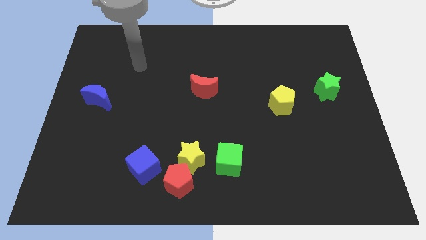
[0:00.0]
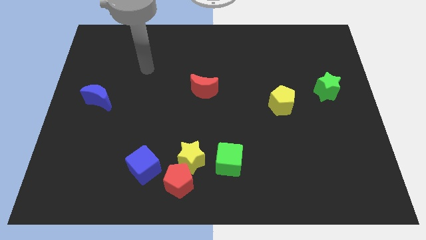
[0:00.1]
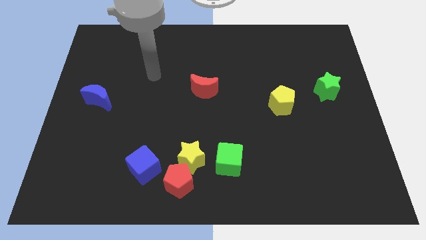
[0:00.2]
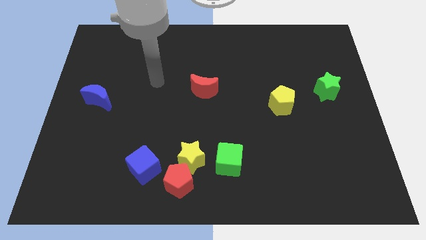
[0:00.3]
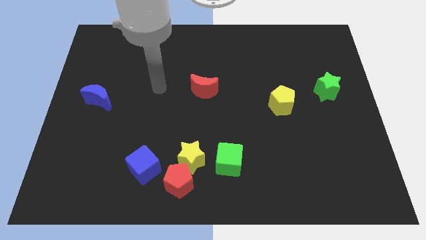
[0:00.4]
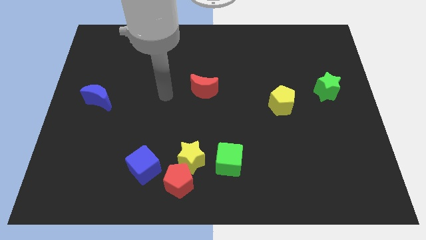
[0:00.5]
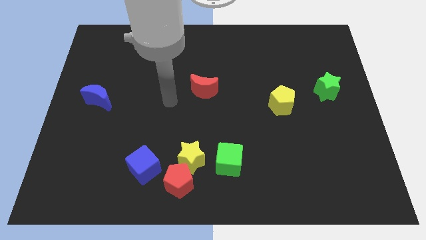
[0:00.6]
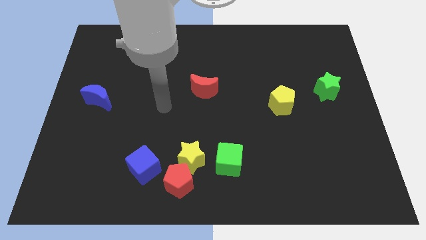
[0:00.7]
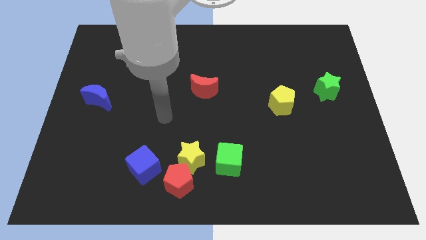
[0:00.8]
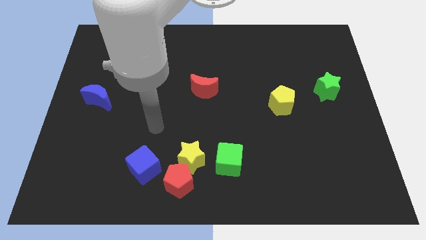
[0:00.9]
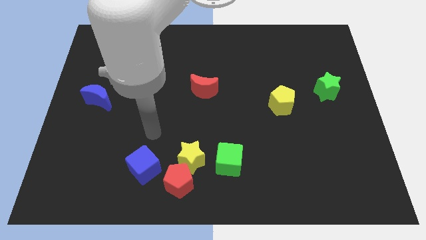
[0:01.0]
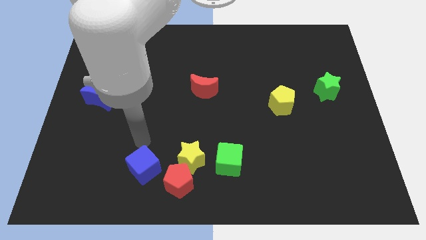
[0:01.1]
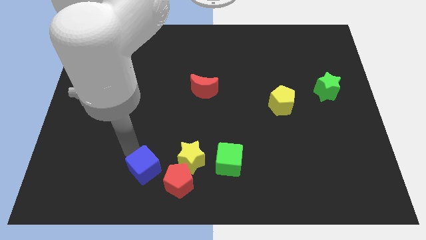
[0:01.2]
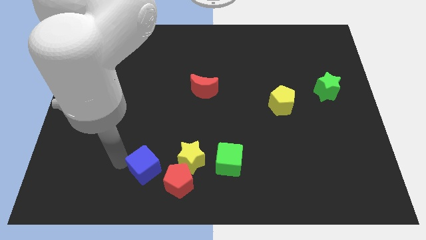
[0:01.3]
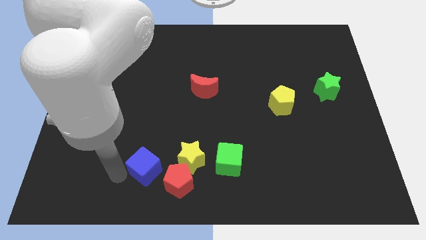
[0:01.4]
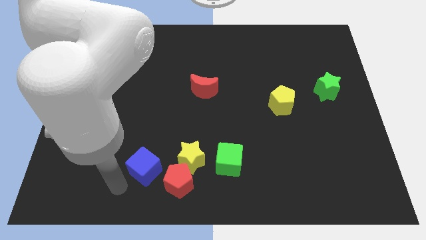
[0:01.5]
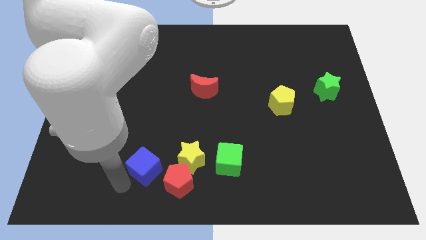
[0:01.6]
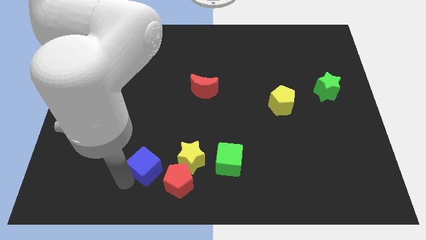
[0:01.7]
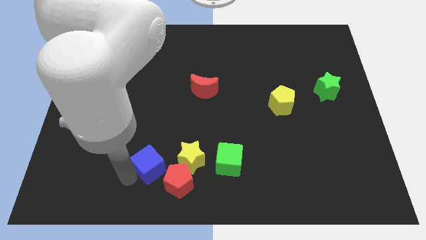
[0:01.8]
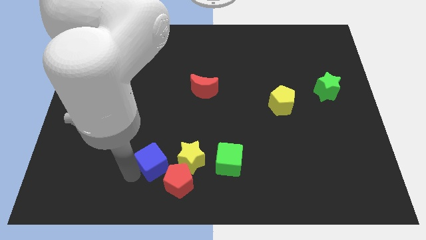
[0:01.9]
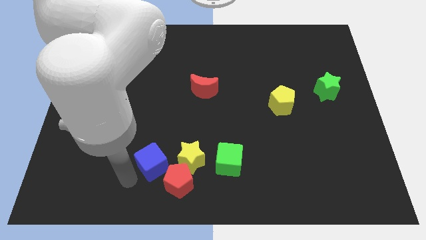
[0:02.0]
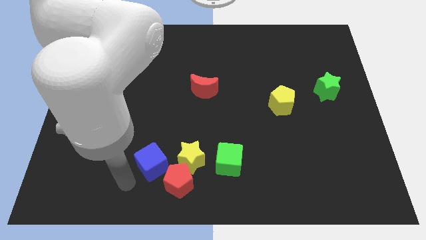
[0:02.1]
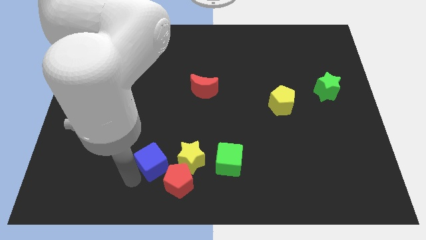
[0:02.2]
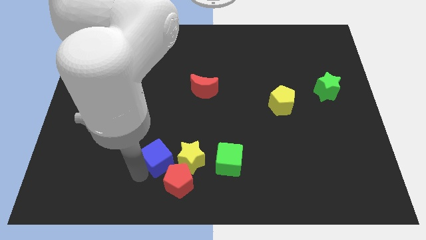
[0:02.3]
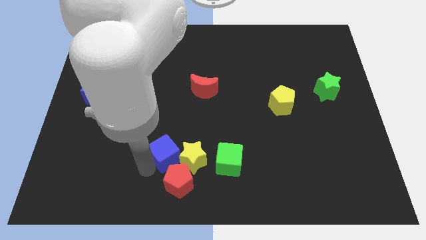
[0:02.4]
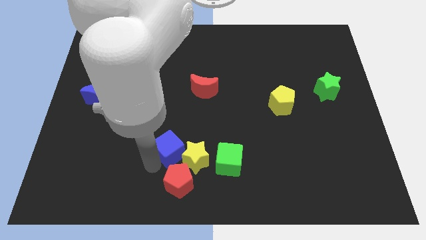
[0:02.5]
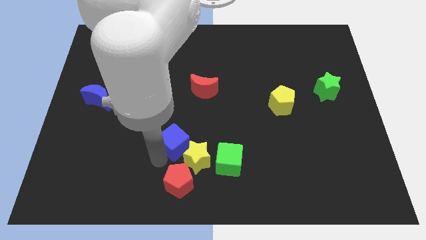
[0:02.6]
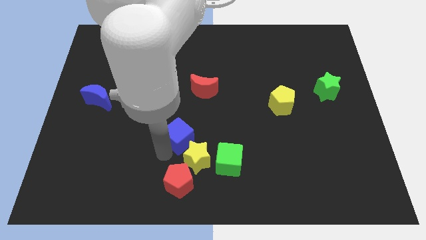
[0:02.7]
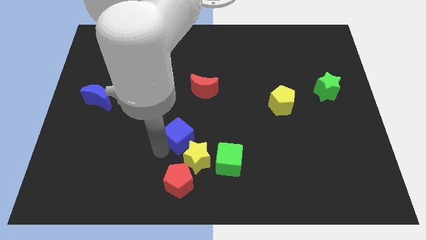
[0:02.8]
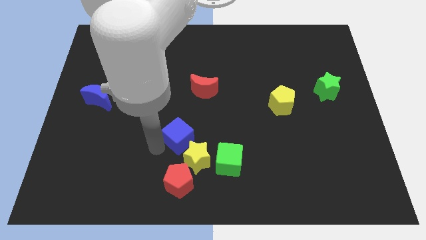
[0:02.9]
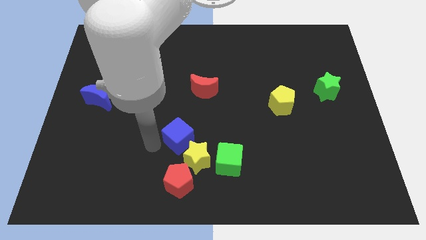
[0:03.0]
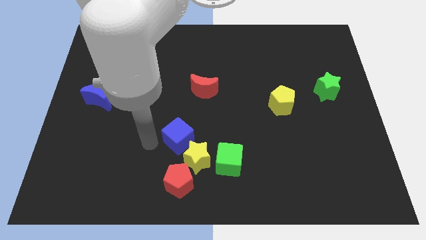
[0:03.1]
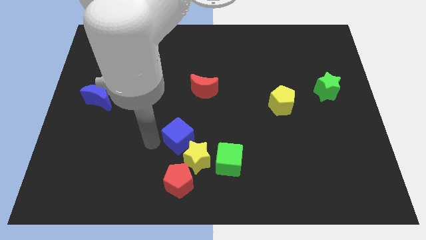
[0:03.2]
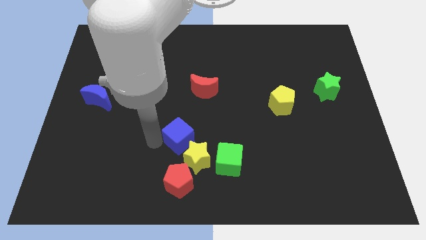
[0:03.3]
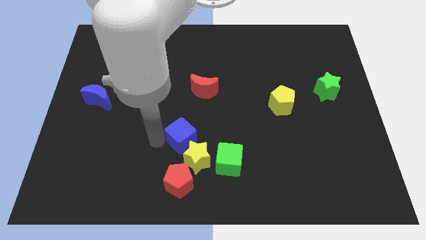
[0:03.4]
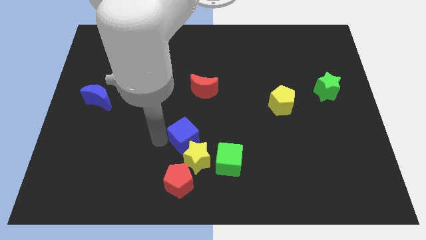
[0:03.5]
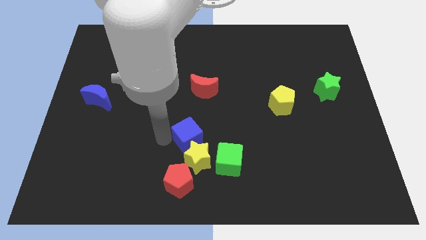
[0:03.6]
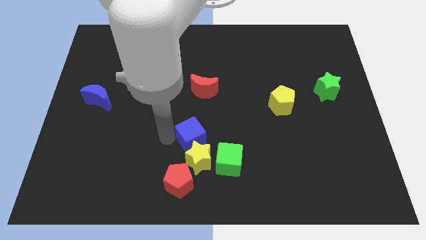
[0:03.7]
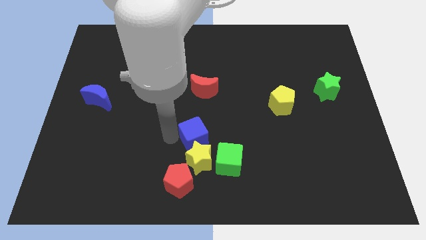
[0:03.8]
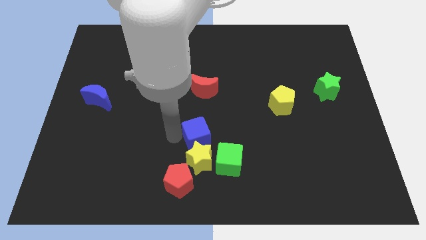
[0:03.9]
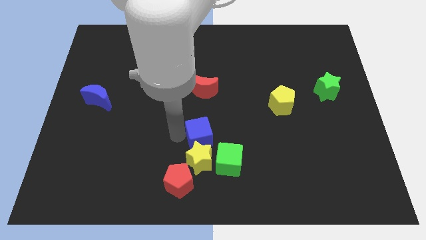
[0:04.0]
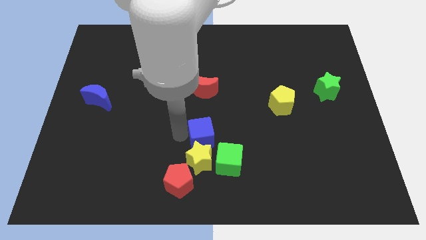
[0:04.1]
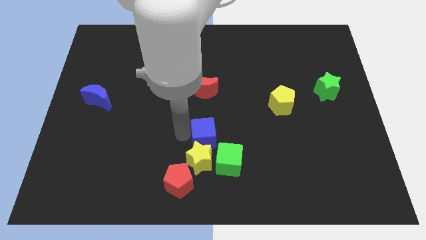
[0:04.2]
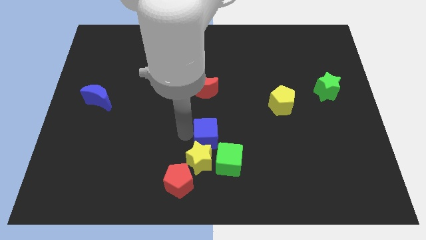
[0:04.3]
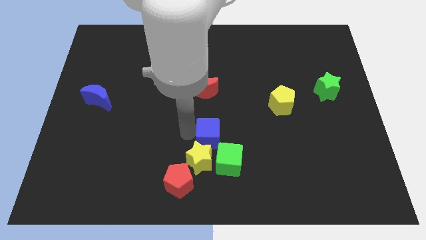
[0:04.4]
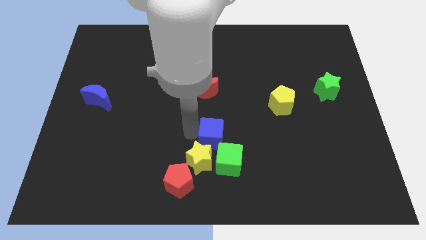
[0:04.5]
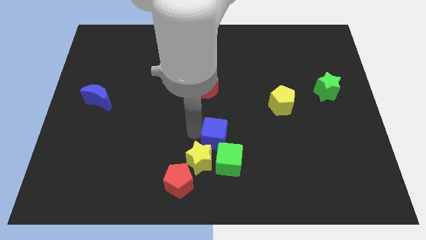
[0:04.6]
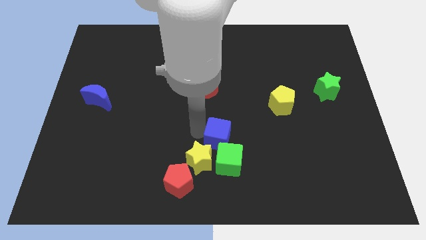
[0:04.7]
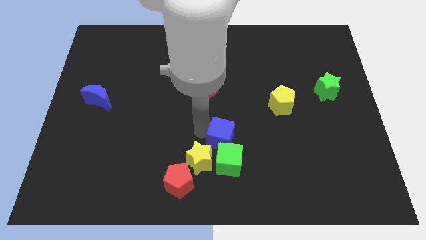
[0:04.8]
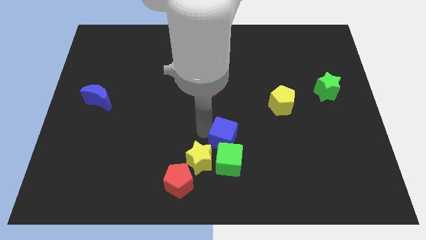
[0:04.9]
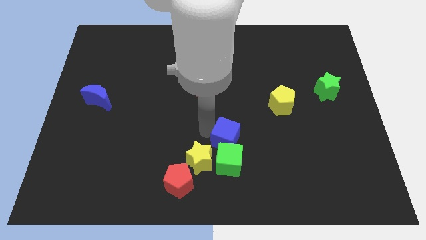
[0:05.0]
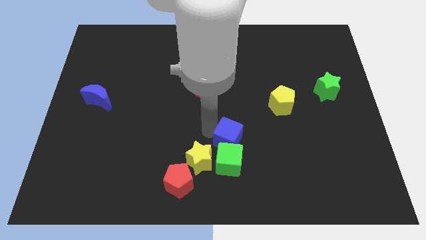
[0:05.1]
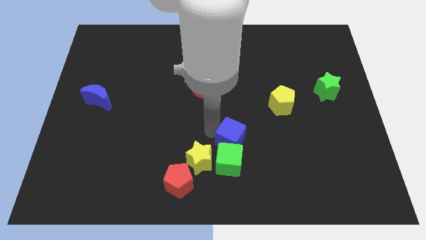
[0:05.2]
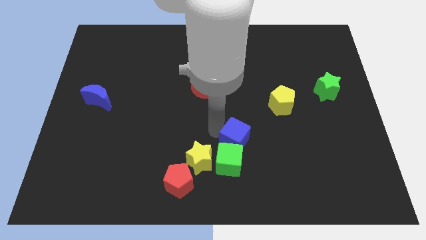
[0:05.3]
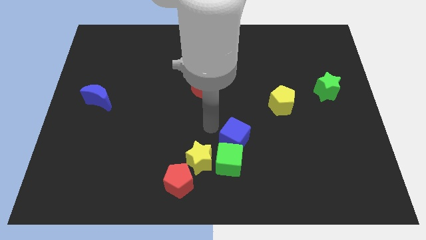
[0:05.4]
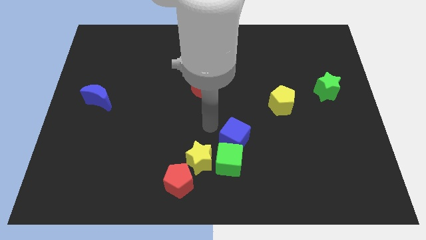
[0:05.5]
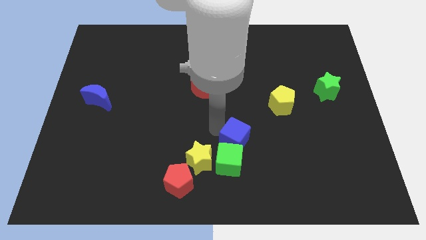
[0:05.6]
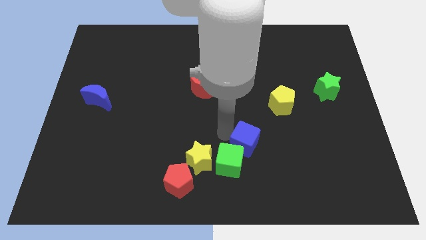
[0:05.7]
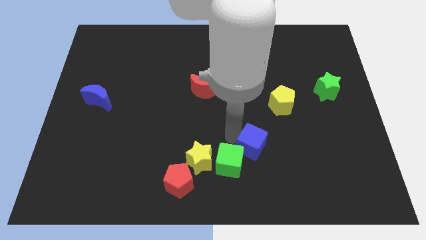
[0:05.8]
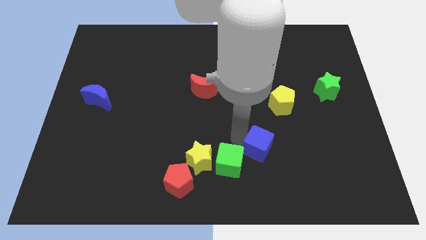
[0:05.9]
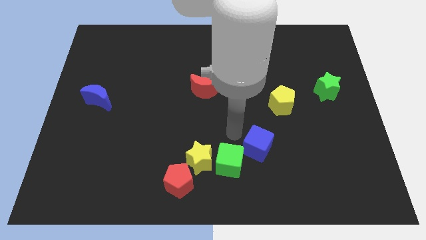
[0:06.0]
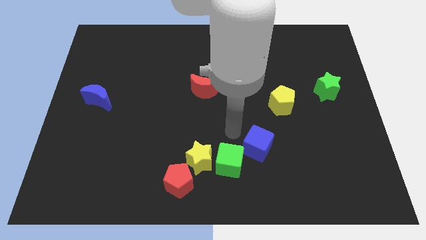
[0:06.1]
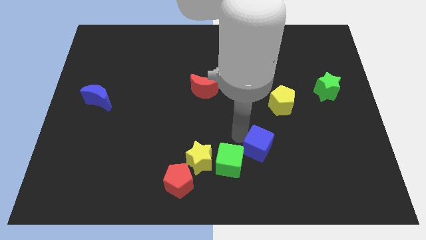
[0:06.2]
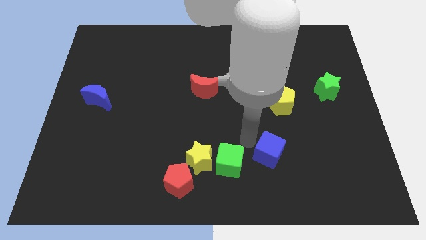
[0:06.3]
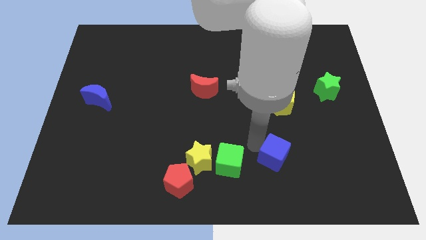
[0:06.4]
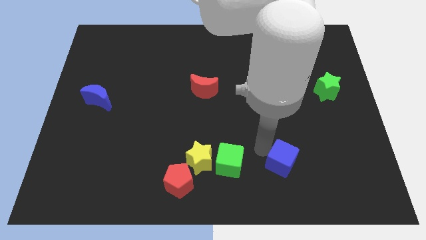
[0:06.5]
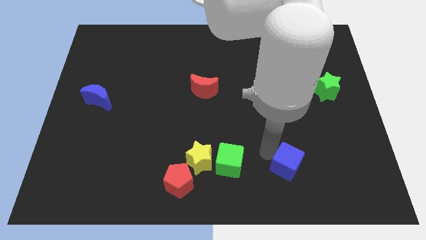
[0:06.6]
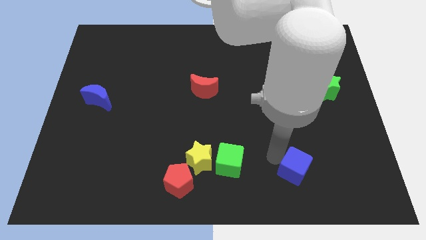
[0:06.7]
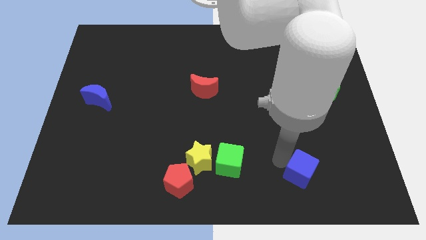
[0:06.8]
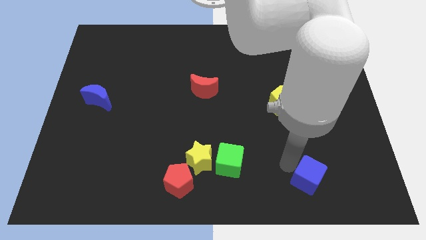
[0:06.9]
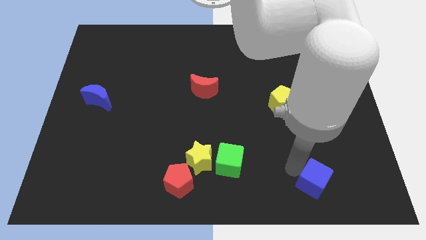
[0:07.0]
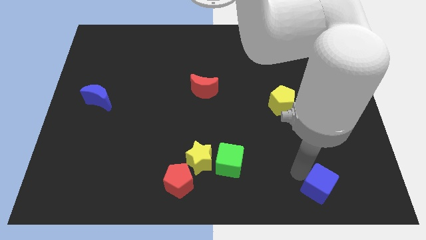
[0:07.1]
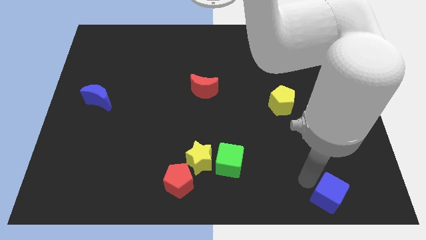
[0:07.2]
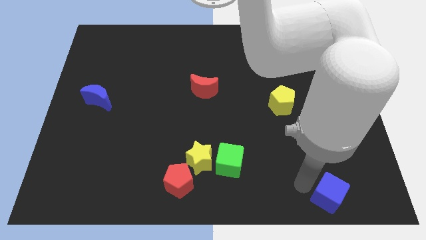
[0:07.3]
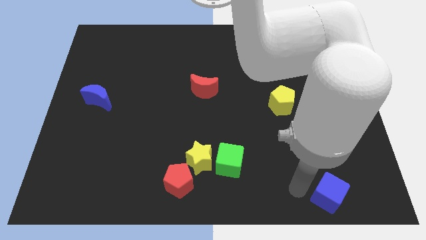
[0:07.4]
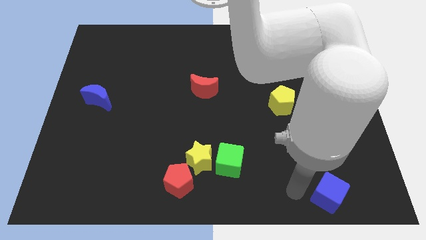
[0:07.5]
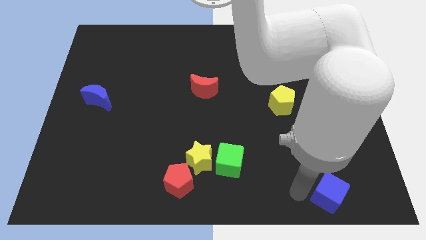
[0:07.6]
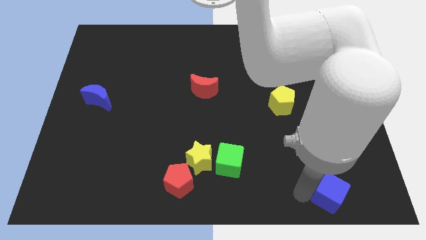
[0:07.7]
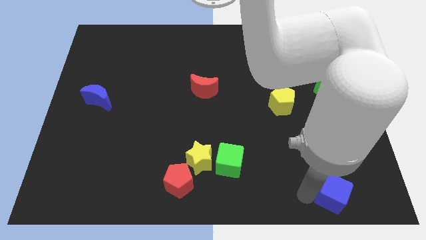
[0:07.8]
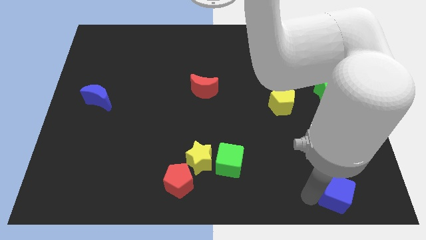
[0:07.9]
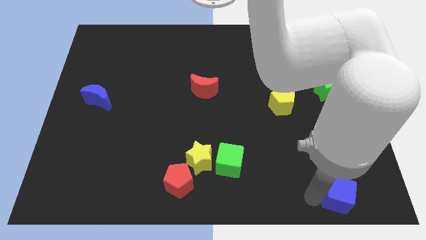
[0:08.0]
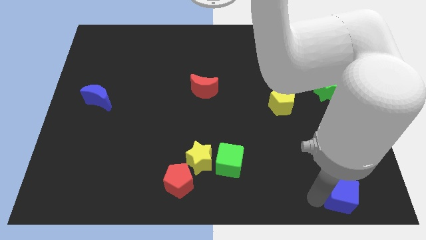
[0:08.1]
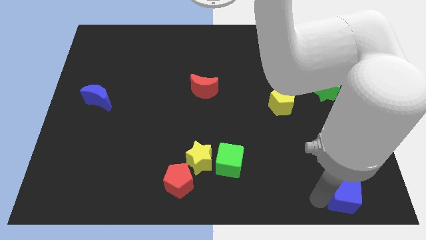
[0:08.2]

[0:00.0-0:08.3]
slide the blue cube to the lower right corner
